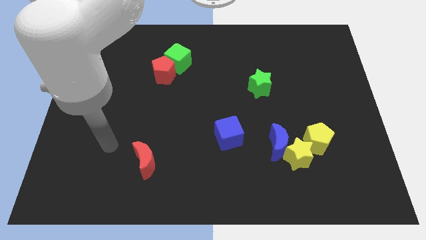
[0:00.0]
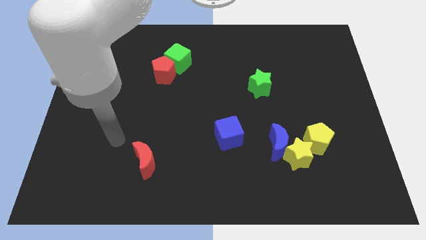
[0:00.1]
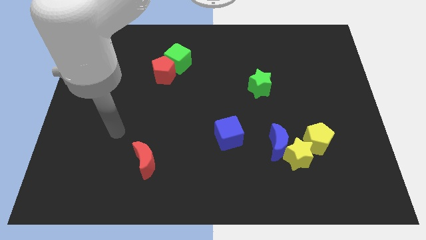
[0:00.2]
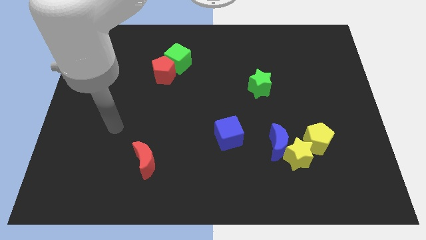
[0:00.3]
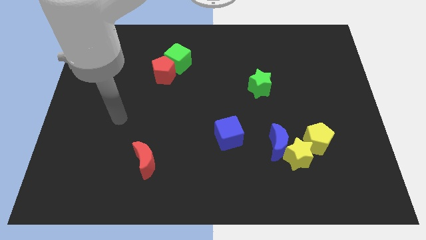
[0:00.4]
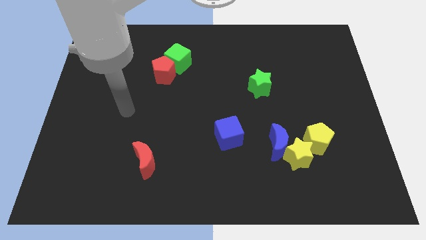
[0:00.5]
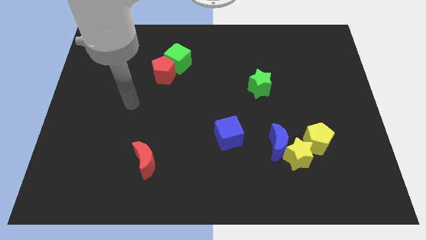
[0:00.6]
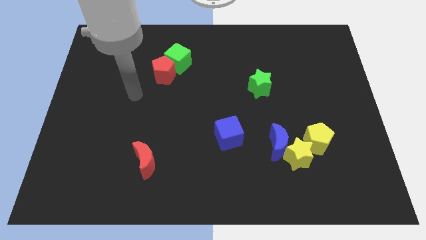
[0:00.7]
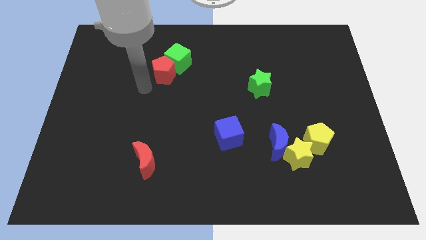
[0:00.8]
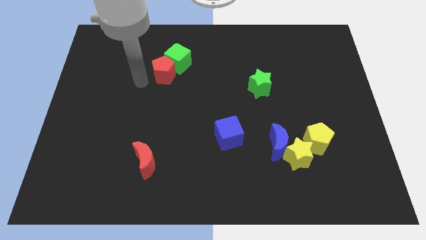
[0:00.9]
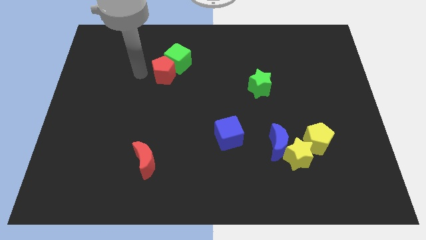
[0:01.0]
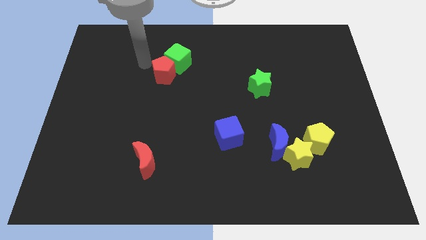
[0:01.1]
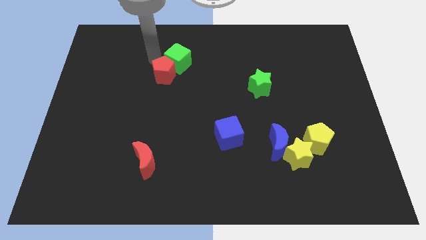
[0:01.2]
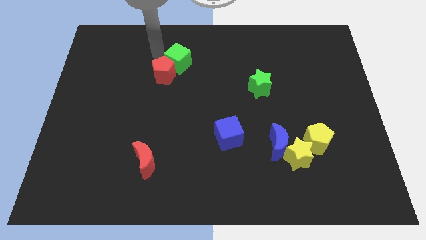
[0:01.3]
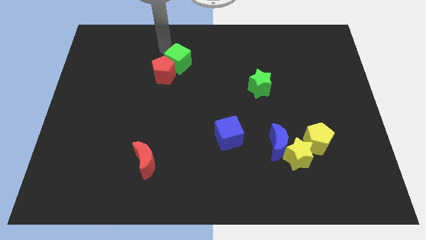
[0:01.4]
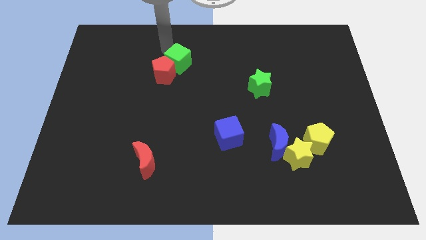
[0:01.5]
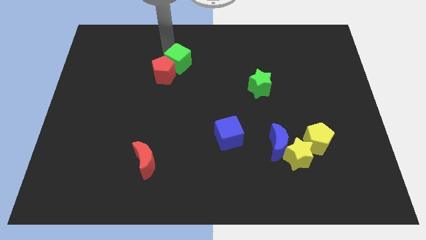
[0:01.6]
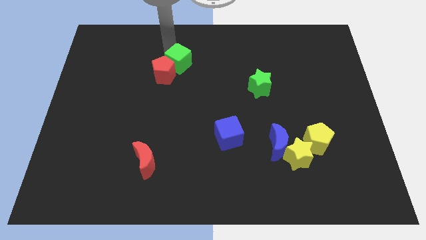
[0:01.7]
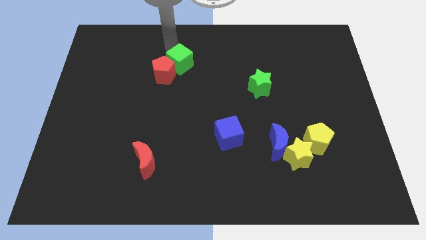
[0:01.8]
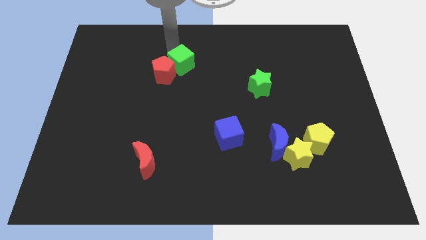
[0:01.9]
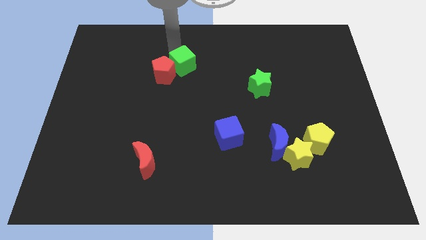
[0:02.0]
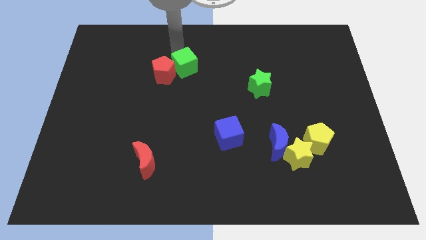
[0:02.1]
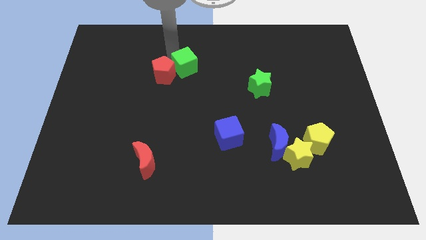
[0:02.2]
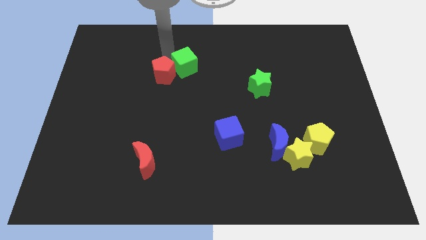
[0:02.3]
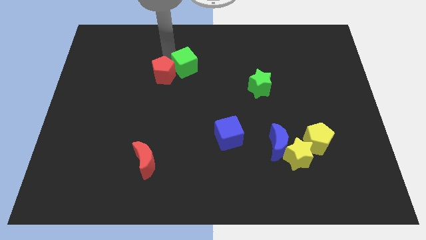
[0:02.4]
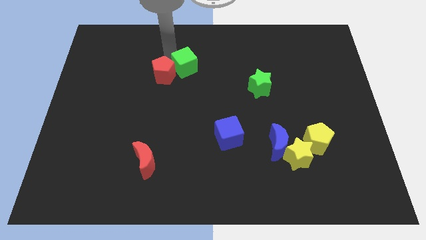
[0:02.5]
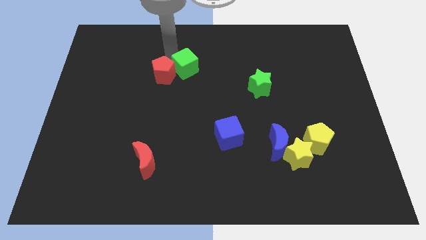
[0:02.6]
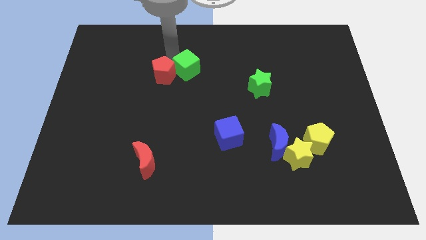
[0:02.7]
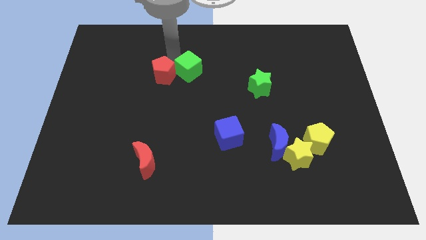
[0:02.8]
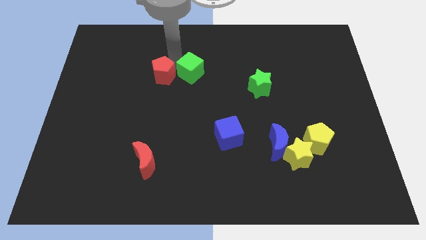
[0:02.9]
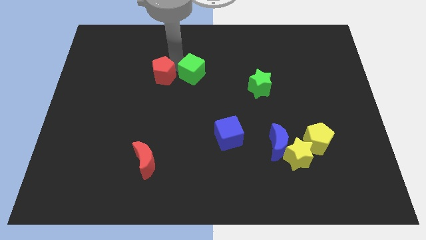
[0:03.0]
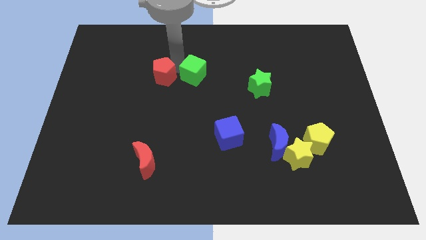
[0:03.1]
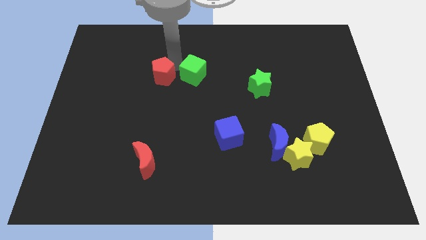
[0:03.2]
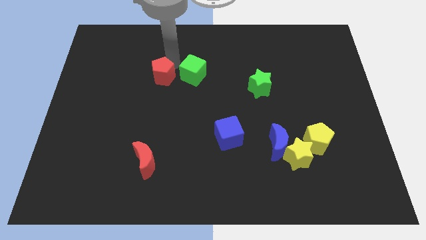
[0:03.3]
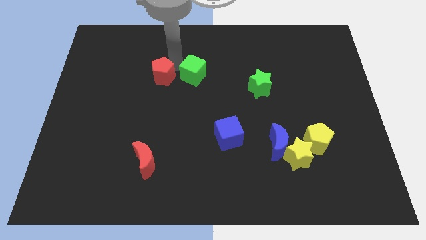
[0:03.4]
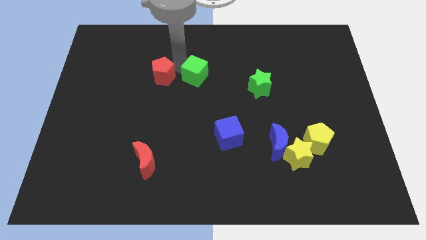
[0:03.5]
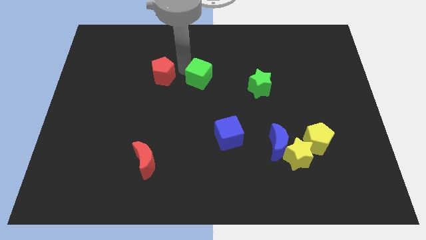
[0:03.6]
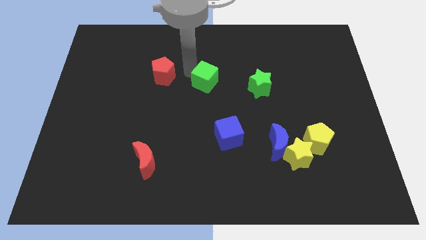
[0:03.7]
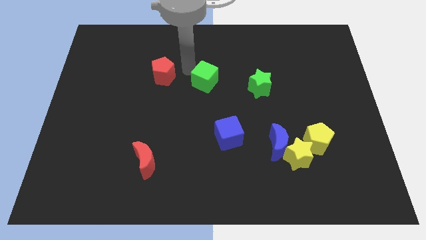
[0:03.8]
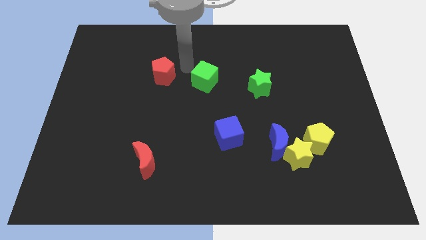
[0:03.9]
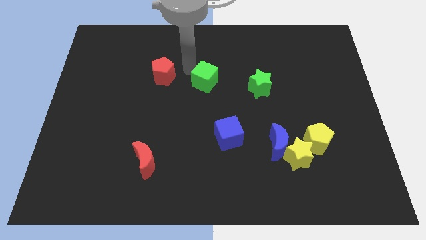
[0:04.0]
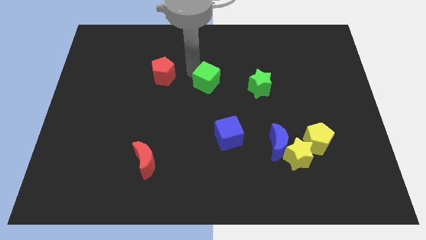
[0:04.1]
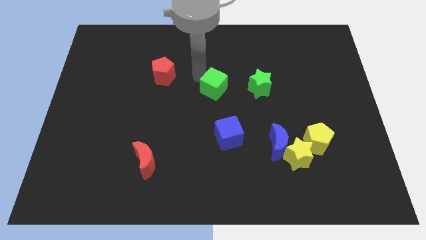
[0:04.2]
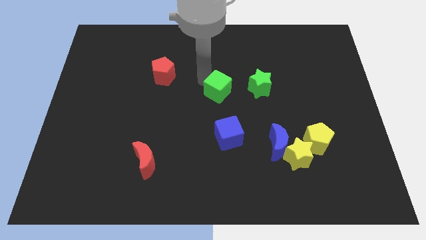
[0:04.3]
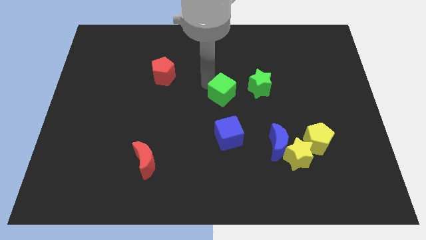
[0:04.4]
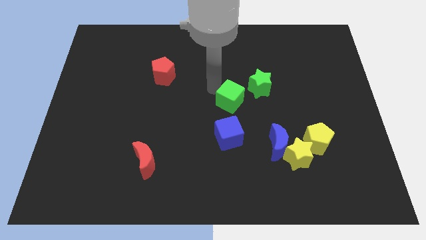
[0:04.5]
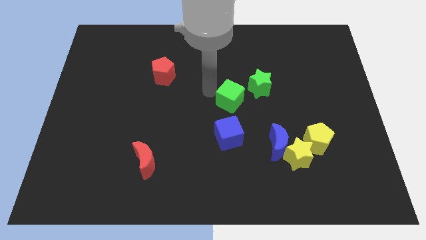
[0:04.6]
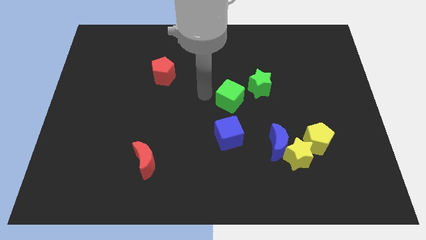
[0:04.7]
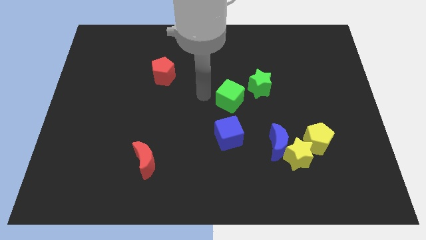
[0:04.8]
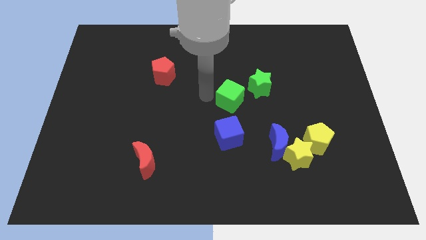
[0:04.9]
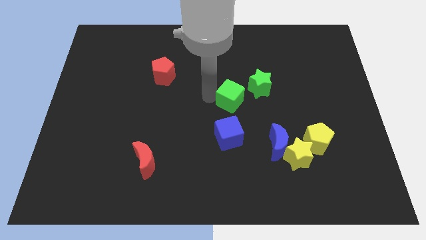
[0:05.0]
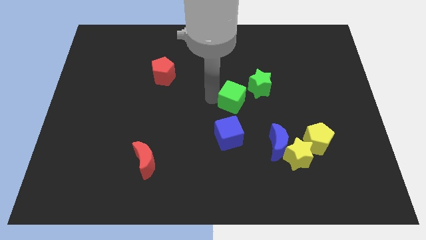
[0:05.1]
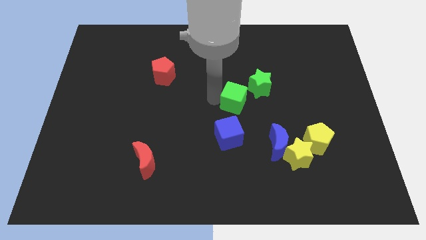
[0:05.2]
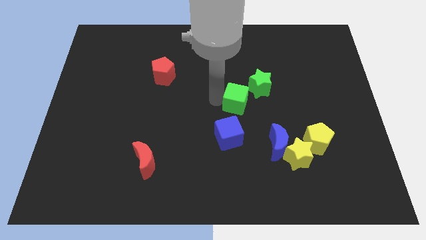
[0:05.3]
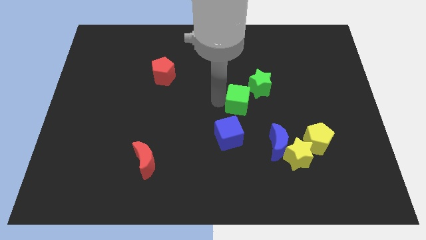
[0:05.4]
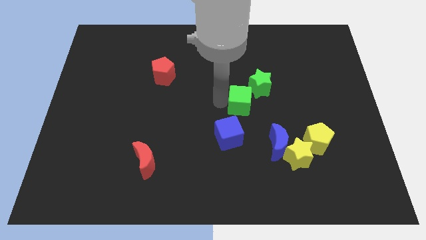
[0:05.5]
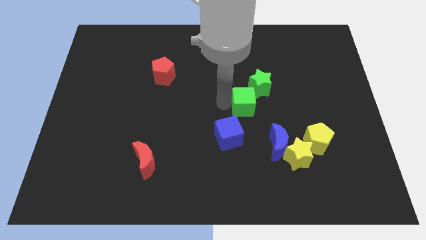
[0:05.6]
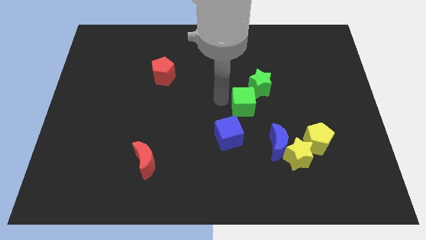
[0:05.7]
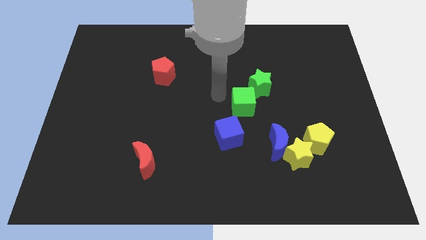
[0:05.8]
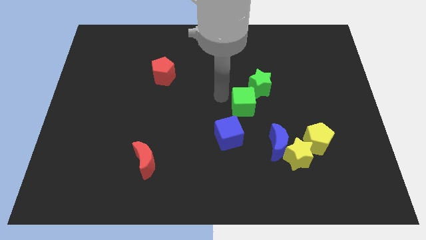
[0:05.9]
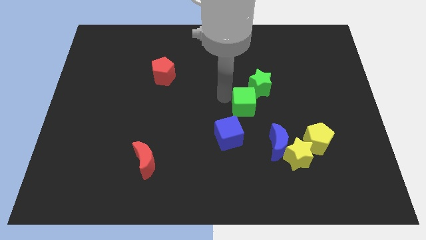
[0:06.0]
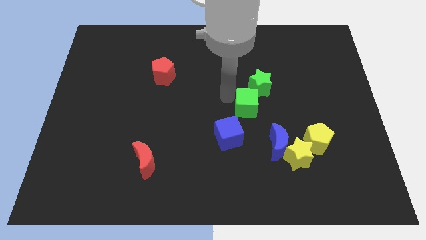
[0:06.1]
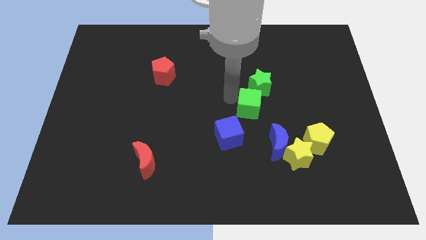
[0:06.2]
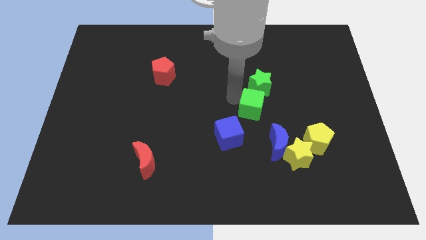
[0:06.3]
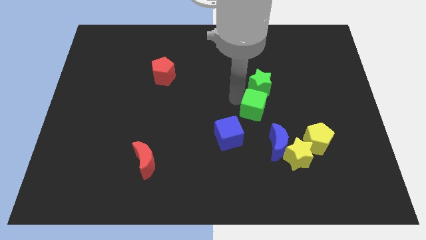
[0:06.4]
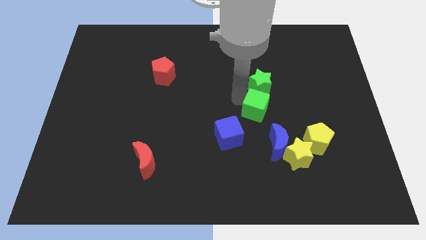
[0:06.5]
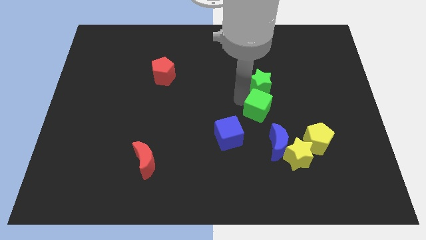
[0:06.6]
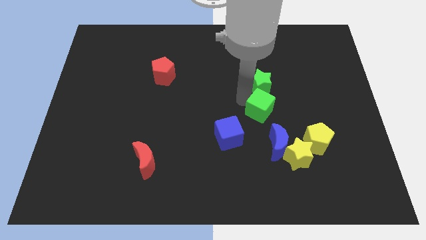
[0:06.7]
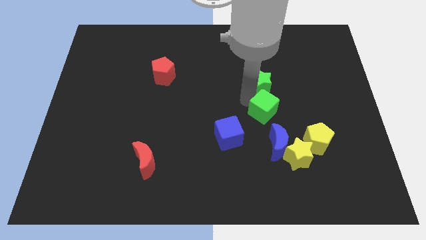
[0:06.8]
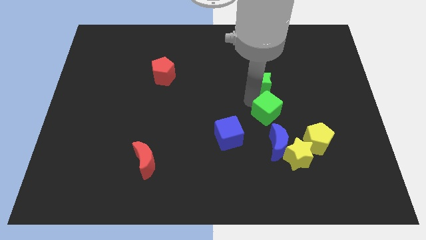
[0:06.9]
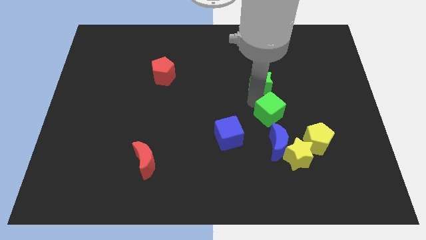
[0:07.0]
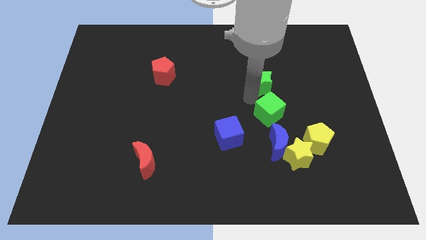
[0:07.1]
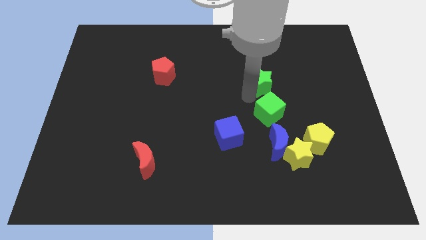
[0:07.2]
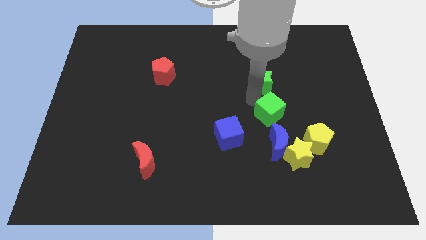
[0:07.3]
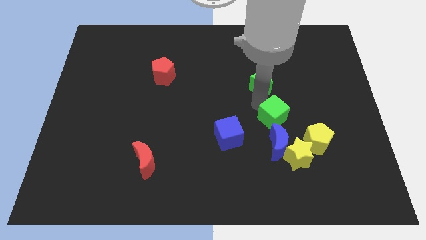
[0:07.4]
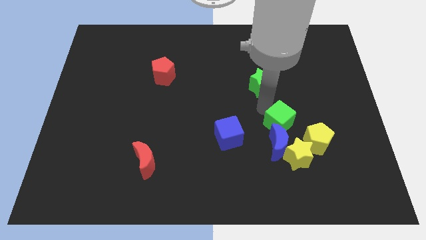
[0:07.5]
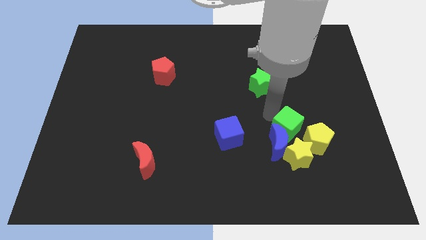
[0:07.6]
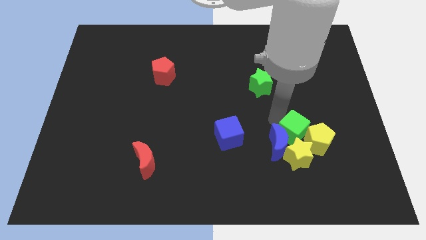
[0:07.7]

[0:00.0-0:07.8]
move the green cube to the yellow pentagon
